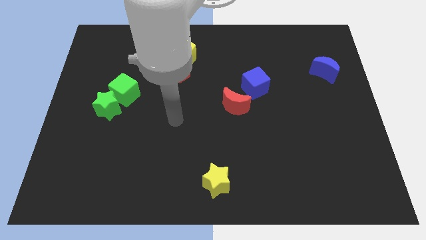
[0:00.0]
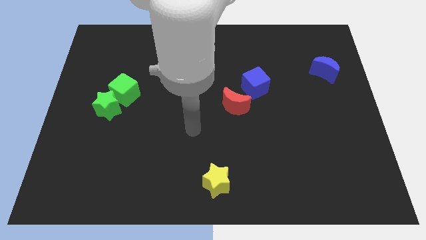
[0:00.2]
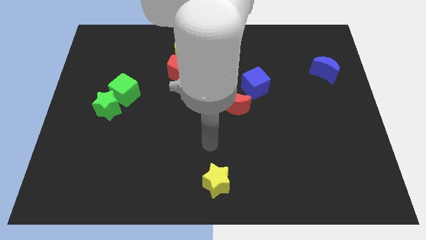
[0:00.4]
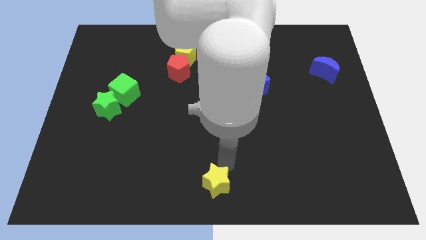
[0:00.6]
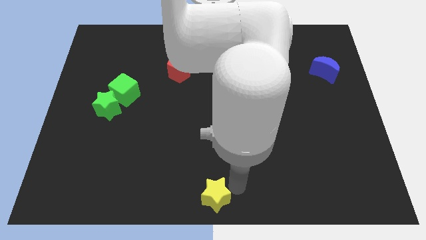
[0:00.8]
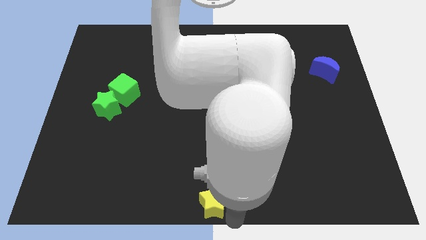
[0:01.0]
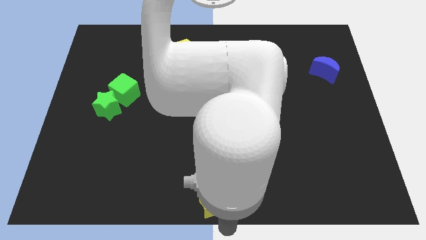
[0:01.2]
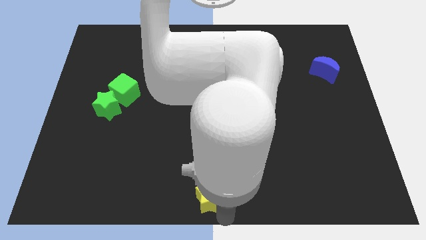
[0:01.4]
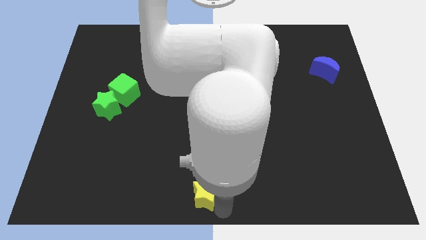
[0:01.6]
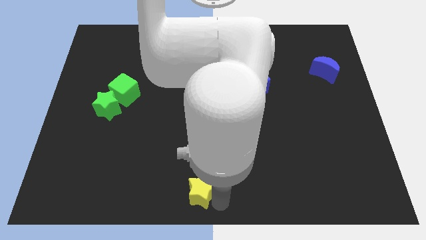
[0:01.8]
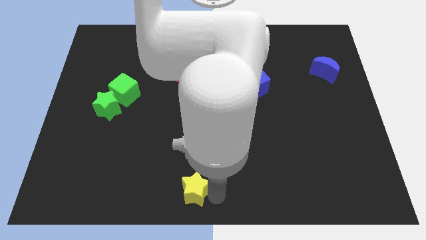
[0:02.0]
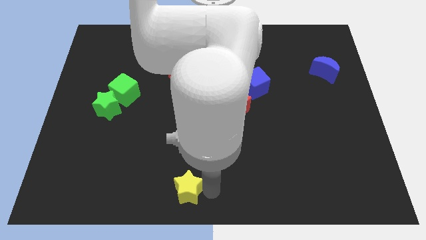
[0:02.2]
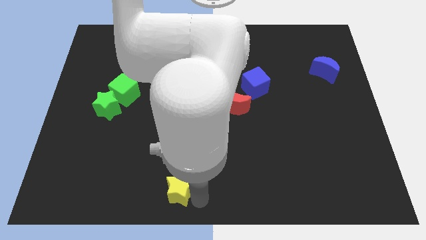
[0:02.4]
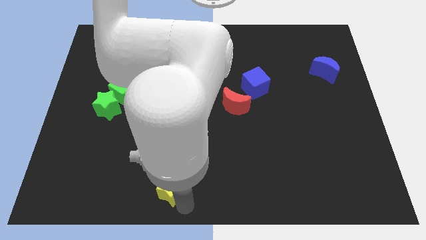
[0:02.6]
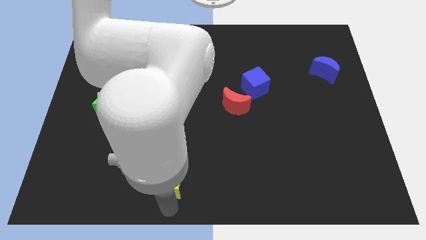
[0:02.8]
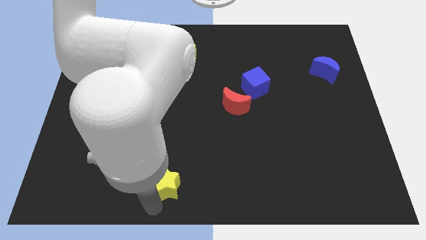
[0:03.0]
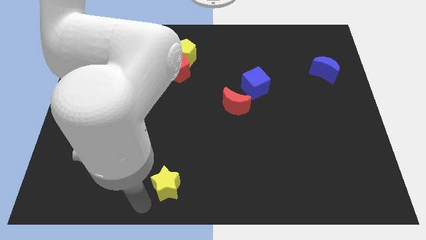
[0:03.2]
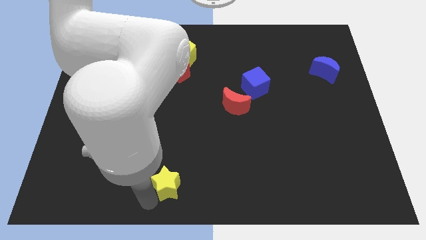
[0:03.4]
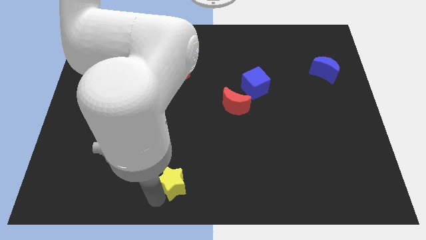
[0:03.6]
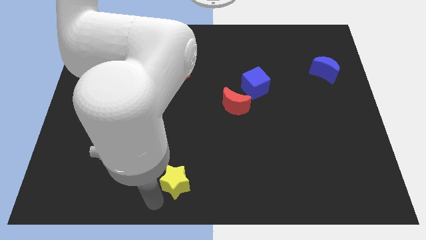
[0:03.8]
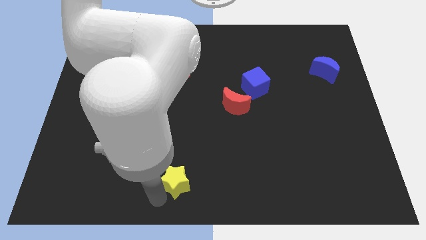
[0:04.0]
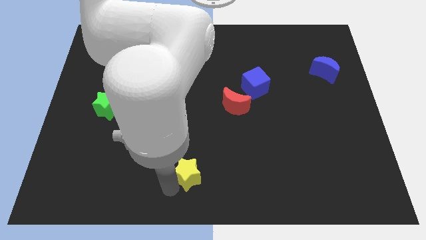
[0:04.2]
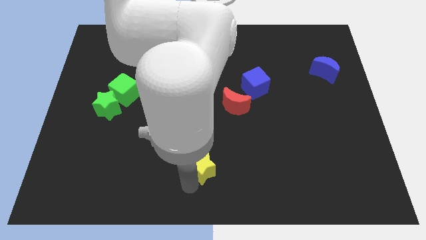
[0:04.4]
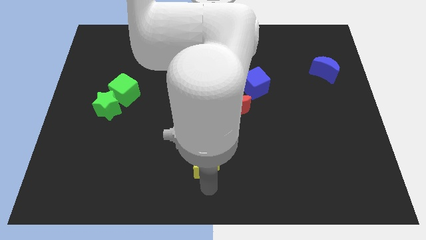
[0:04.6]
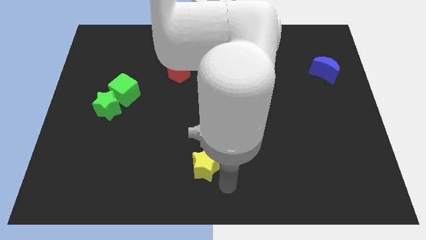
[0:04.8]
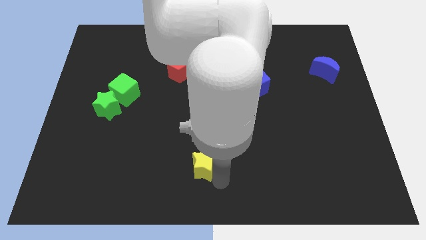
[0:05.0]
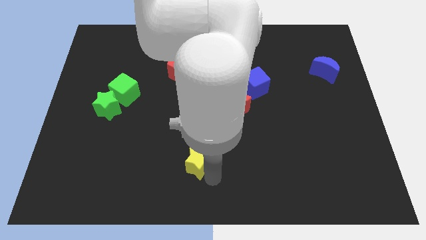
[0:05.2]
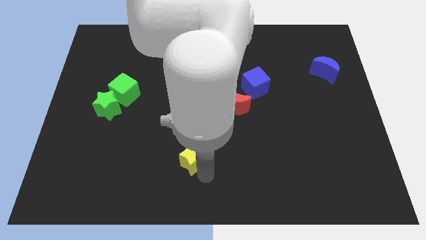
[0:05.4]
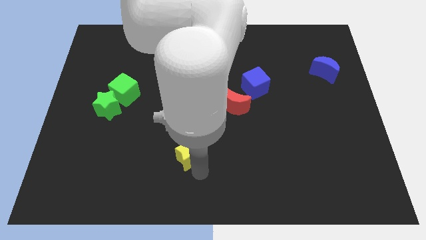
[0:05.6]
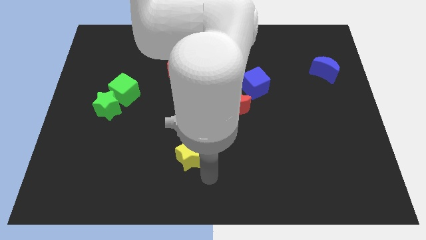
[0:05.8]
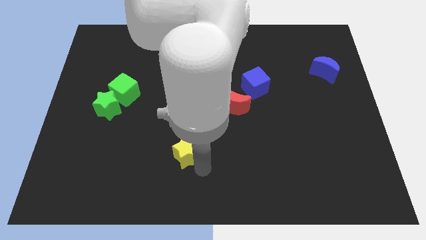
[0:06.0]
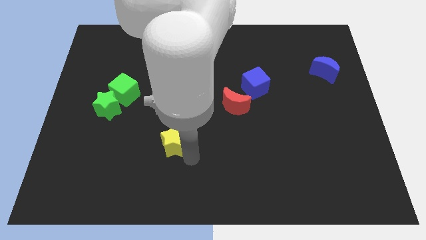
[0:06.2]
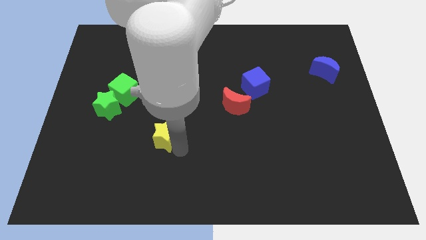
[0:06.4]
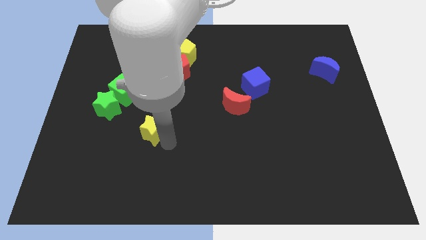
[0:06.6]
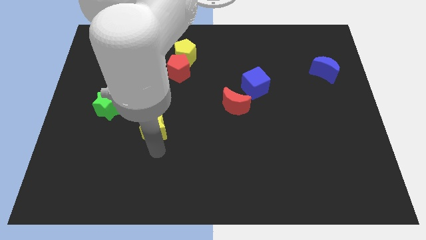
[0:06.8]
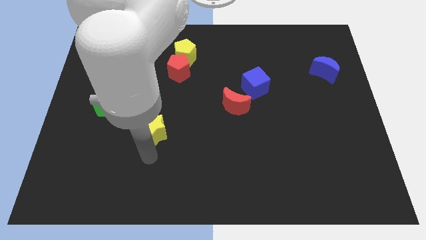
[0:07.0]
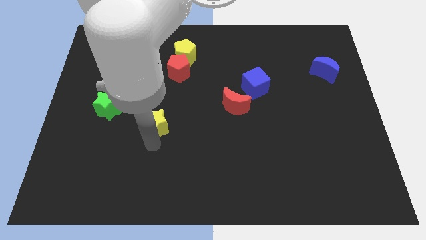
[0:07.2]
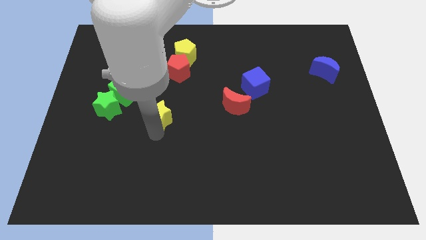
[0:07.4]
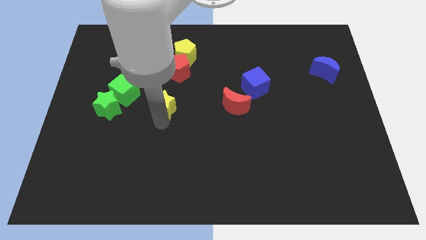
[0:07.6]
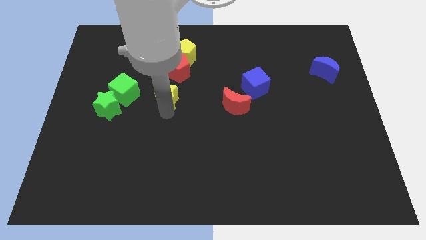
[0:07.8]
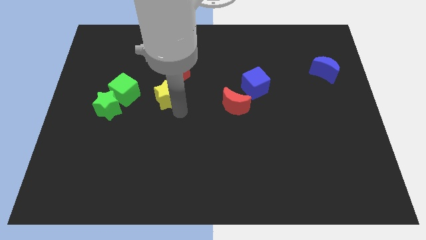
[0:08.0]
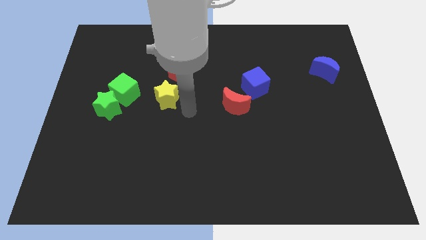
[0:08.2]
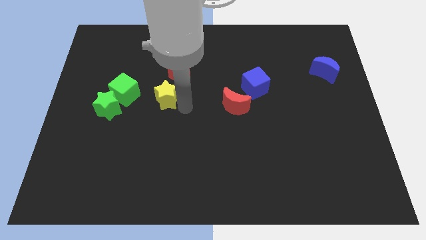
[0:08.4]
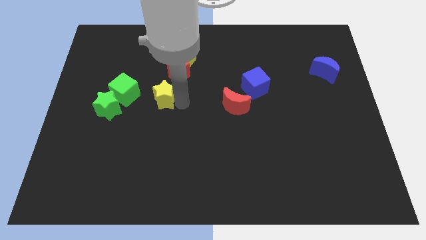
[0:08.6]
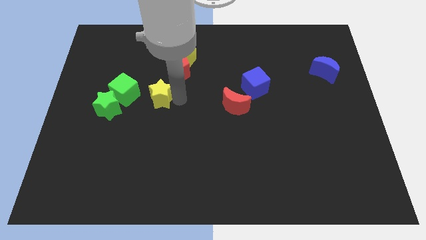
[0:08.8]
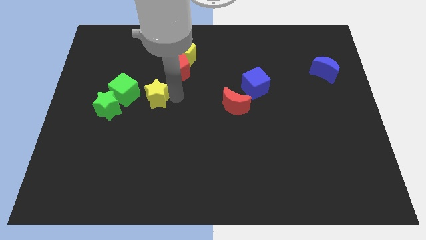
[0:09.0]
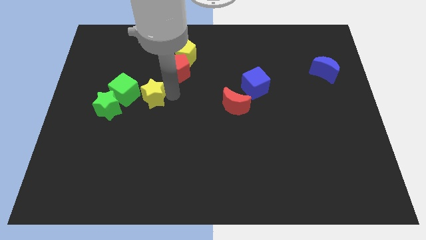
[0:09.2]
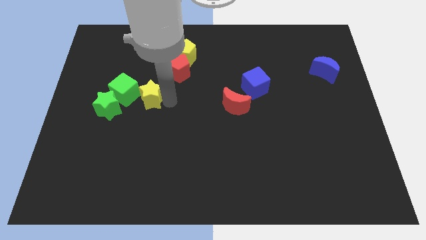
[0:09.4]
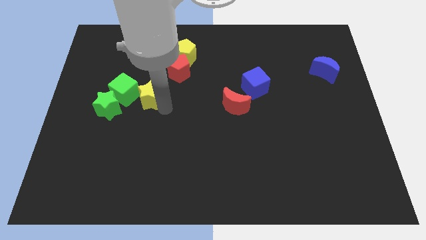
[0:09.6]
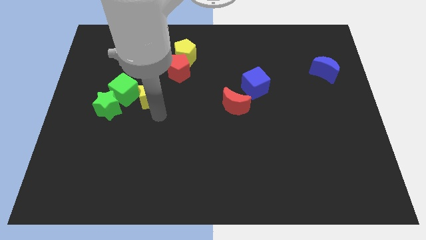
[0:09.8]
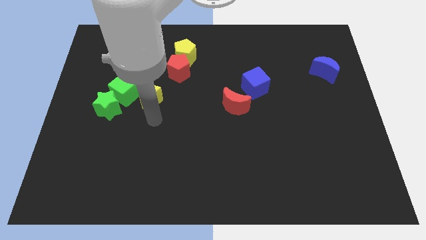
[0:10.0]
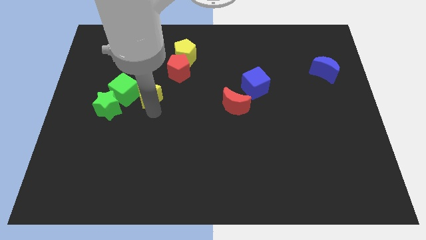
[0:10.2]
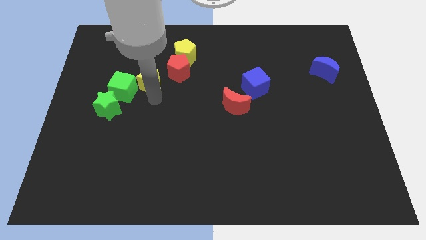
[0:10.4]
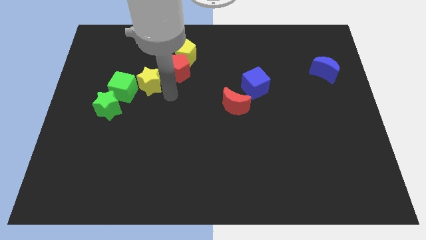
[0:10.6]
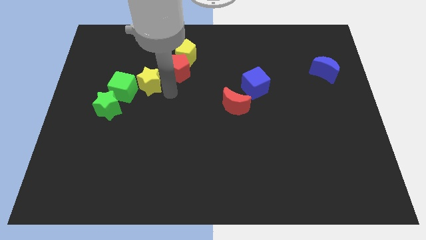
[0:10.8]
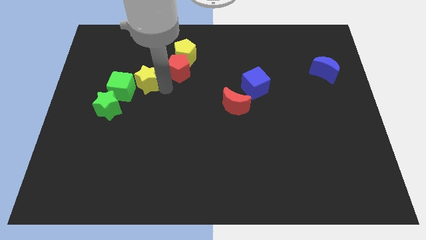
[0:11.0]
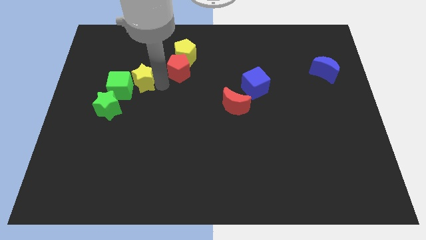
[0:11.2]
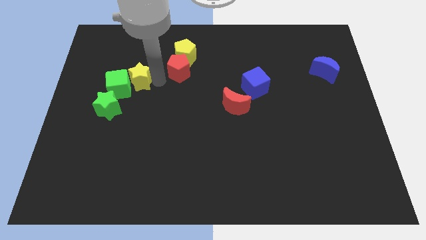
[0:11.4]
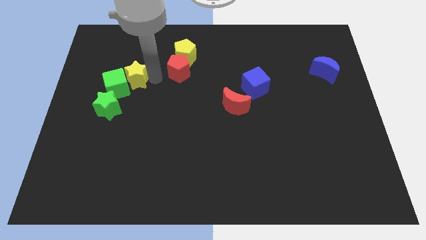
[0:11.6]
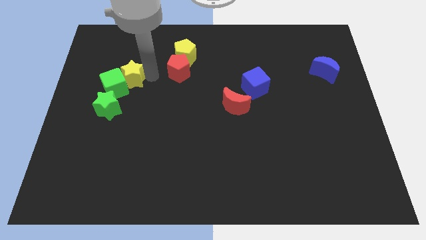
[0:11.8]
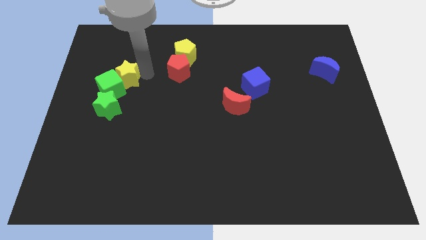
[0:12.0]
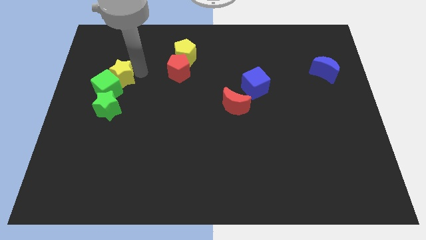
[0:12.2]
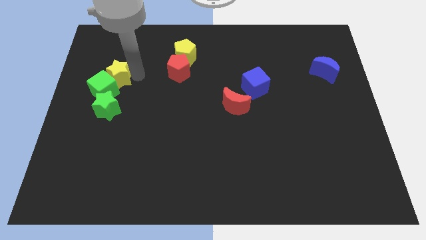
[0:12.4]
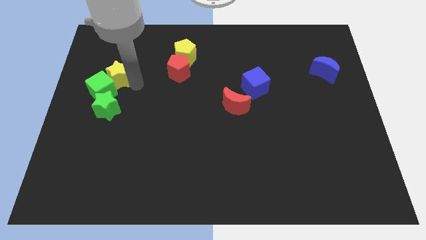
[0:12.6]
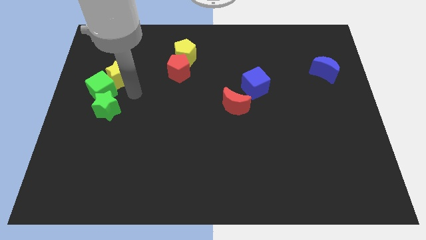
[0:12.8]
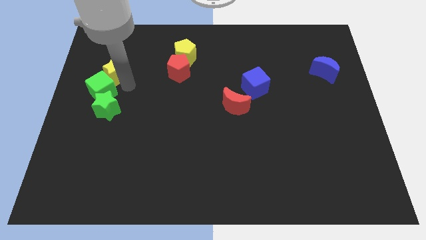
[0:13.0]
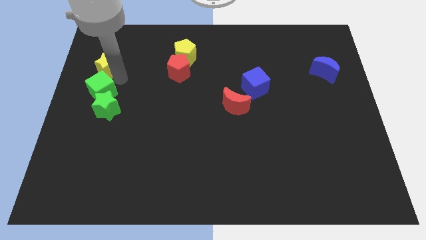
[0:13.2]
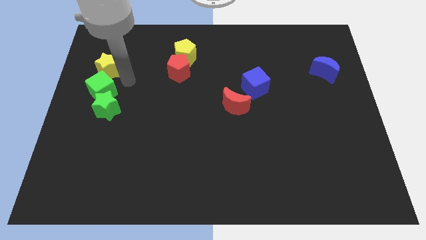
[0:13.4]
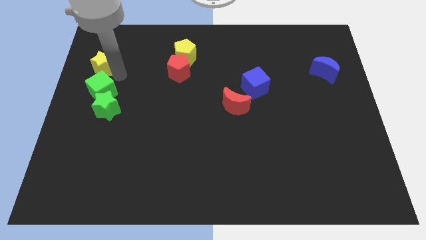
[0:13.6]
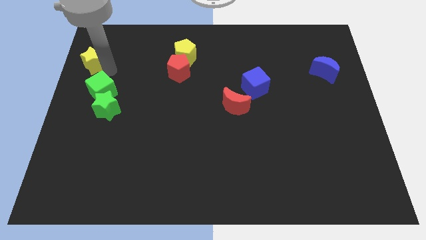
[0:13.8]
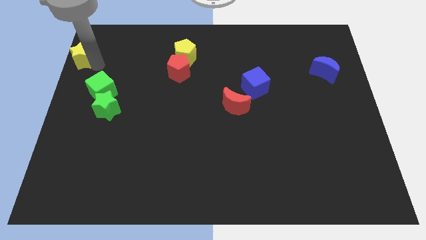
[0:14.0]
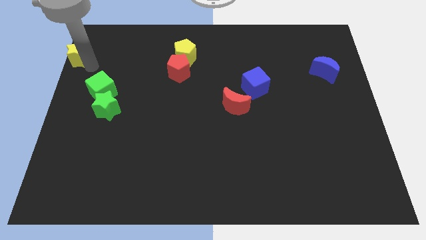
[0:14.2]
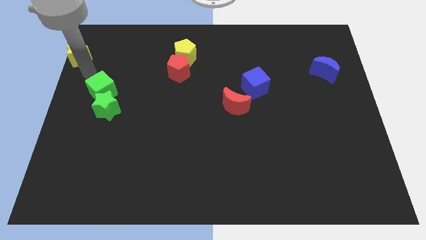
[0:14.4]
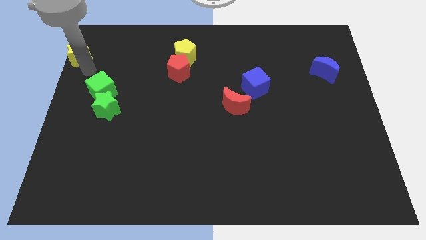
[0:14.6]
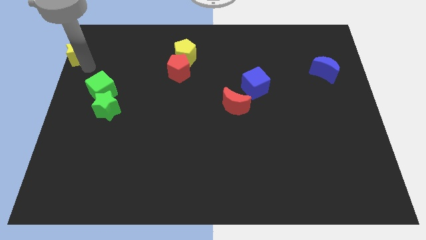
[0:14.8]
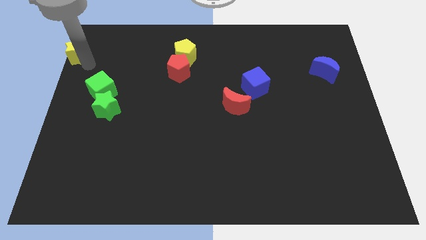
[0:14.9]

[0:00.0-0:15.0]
put the yellow star to the top left
